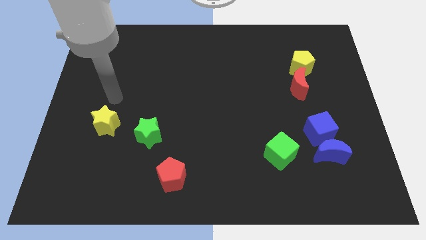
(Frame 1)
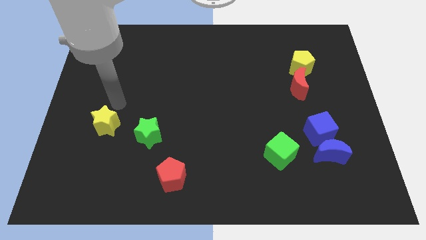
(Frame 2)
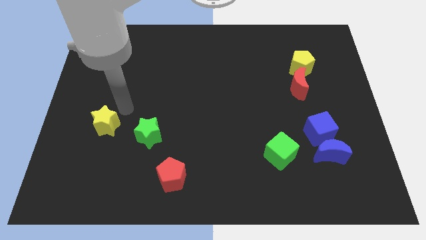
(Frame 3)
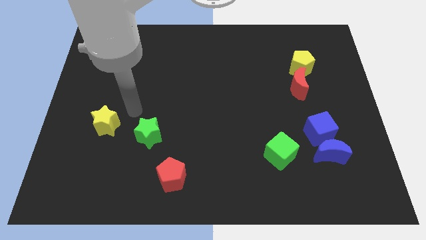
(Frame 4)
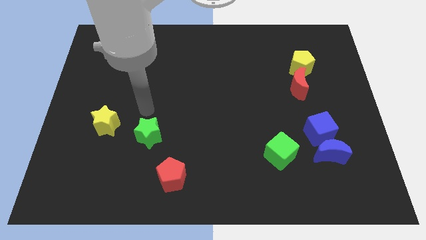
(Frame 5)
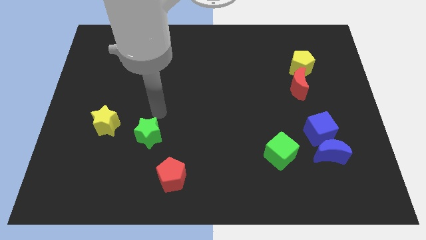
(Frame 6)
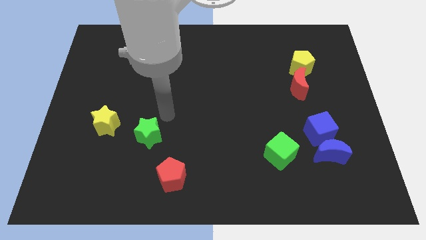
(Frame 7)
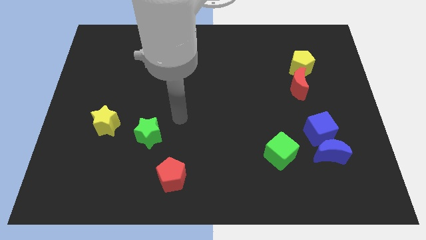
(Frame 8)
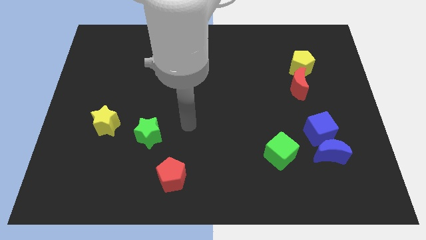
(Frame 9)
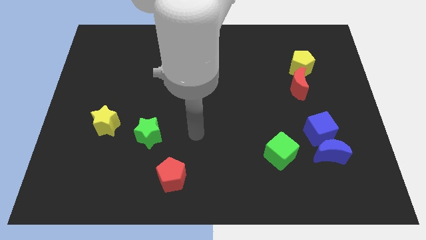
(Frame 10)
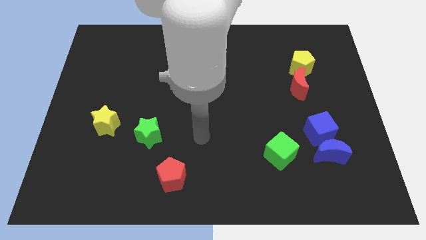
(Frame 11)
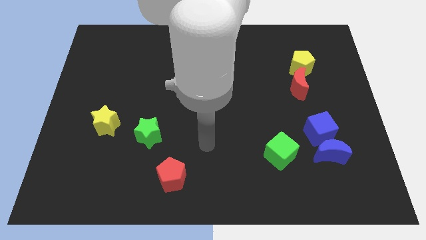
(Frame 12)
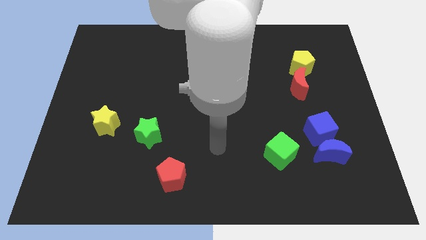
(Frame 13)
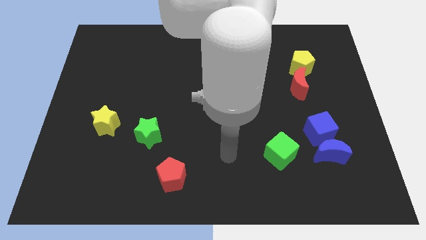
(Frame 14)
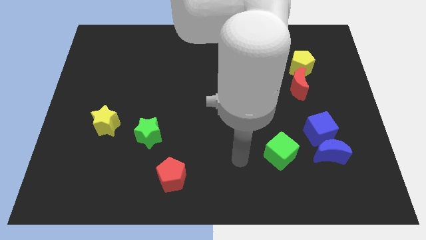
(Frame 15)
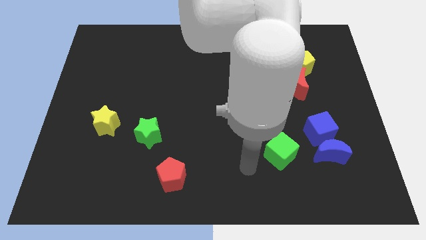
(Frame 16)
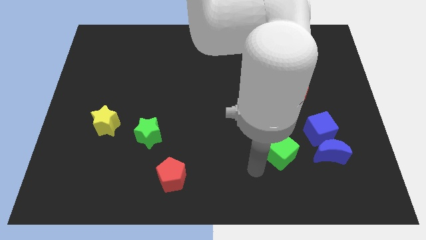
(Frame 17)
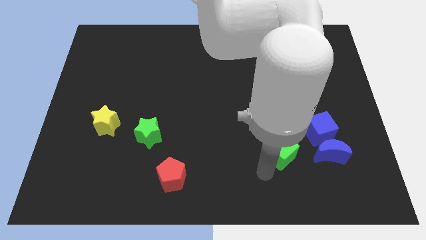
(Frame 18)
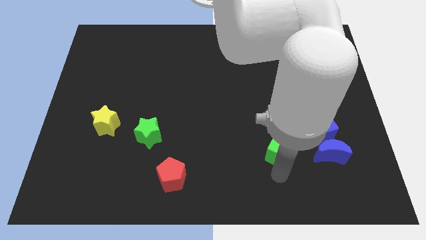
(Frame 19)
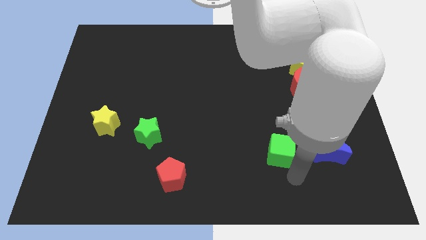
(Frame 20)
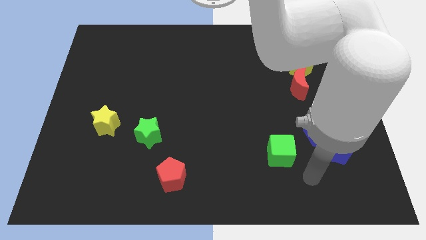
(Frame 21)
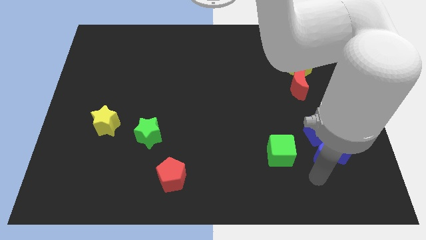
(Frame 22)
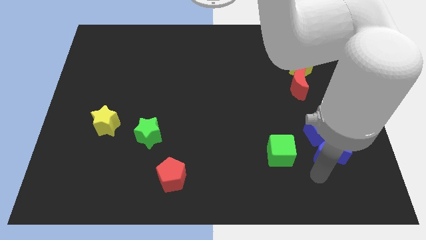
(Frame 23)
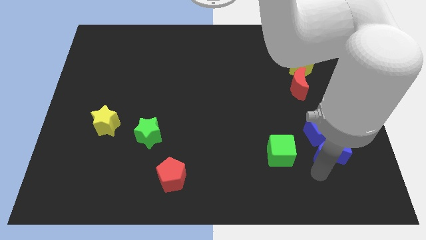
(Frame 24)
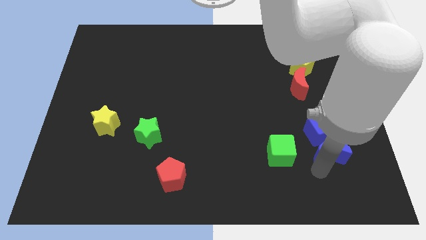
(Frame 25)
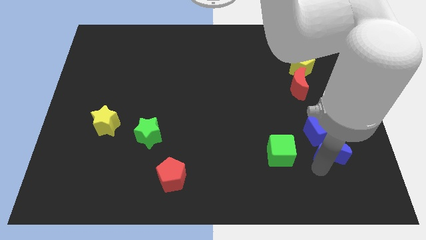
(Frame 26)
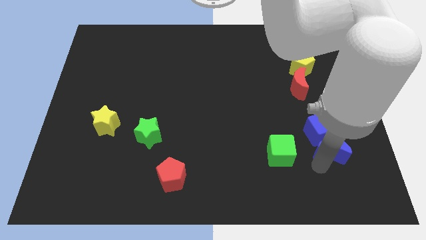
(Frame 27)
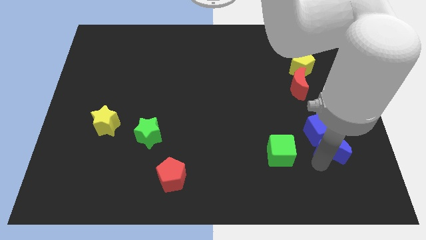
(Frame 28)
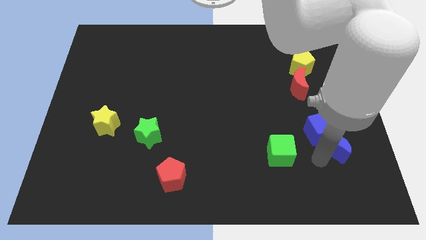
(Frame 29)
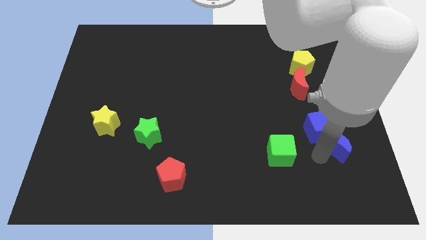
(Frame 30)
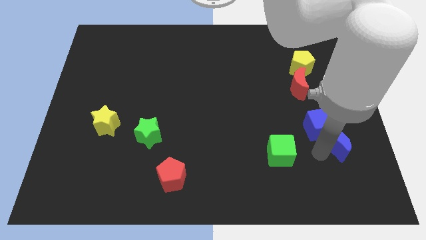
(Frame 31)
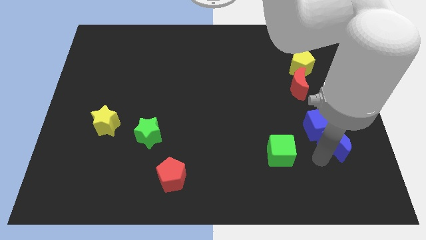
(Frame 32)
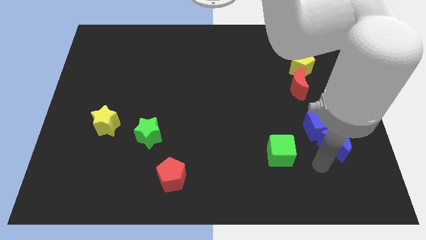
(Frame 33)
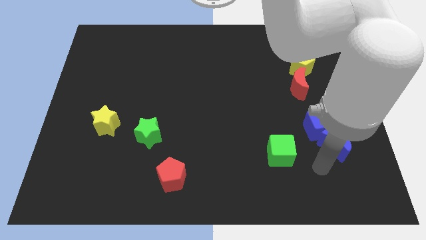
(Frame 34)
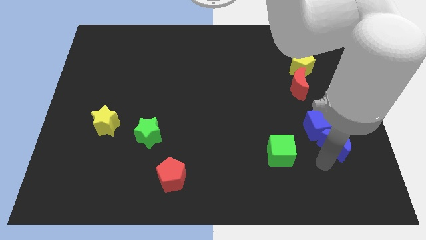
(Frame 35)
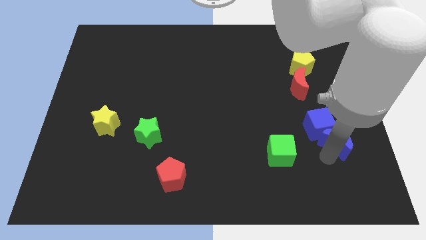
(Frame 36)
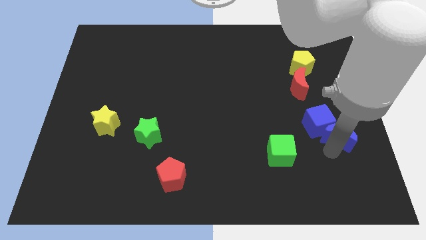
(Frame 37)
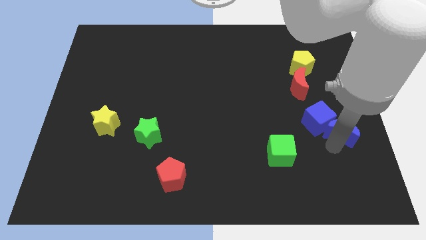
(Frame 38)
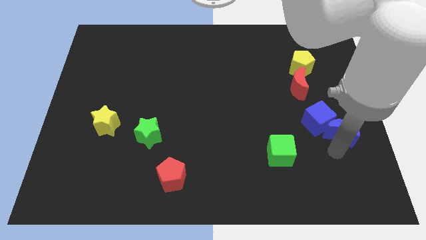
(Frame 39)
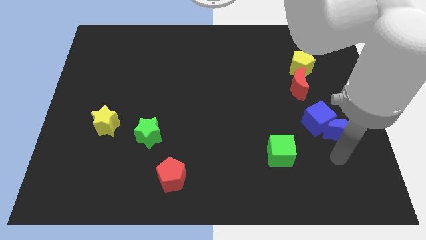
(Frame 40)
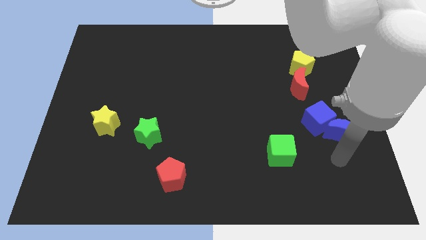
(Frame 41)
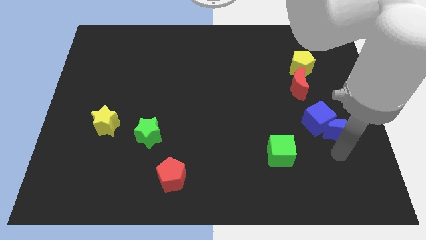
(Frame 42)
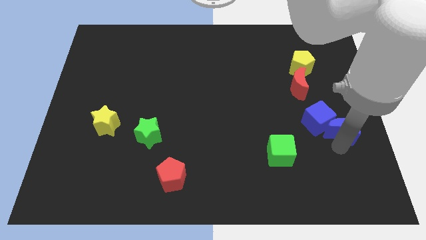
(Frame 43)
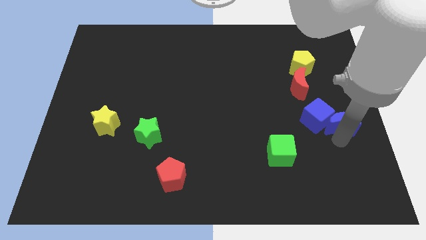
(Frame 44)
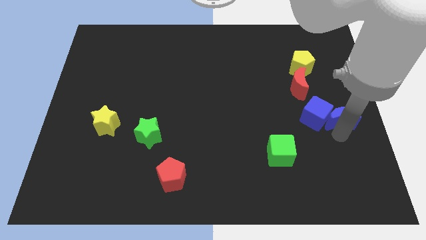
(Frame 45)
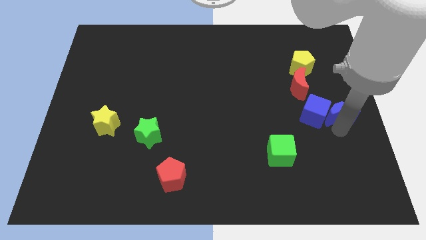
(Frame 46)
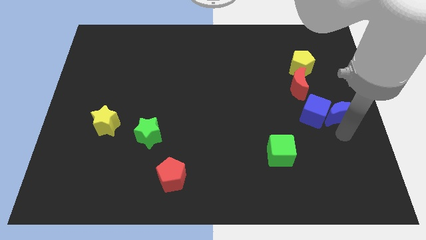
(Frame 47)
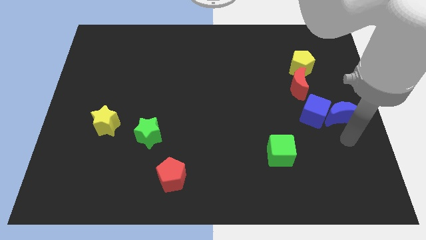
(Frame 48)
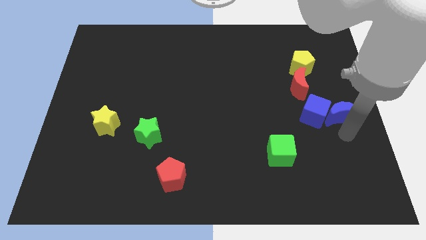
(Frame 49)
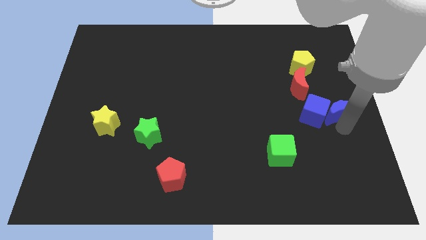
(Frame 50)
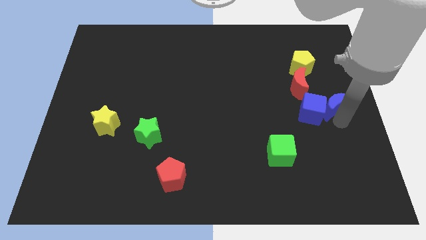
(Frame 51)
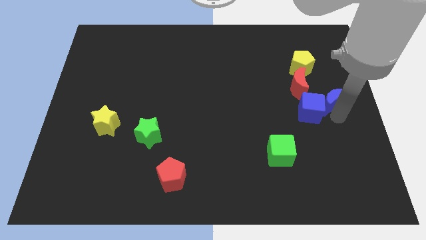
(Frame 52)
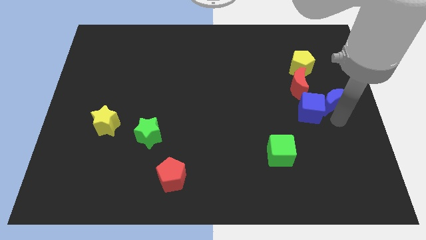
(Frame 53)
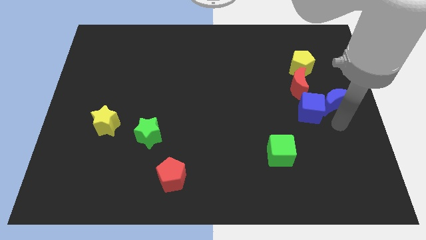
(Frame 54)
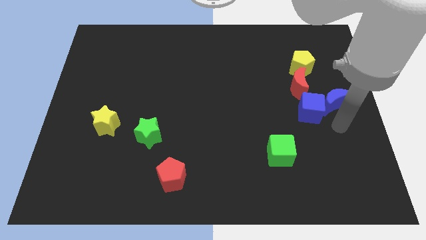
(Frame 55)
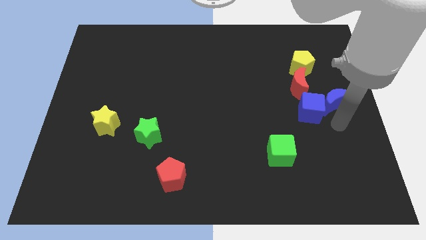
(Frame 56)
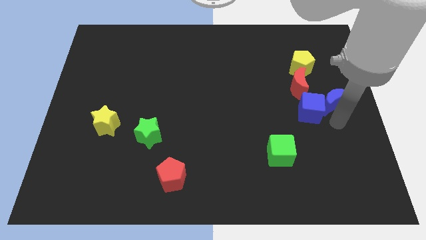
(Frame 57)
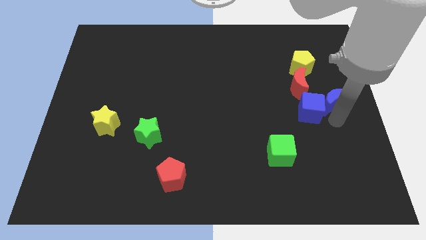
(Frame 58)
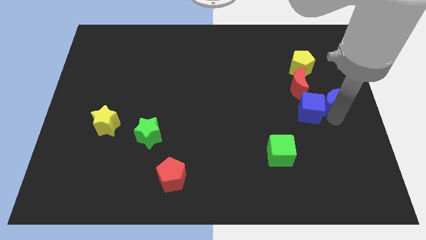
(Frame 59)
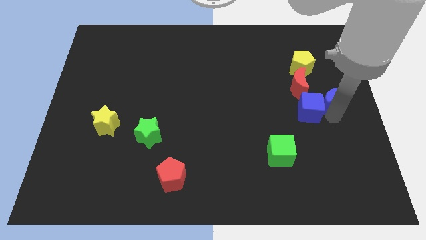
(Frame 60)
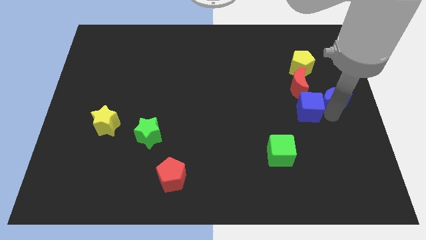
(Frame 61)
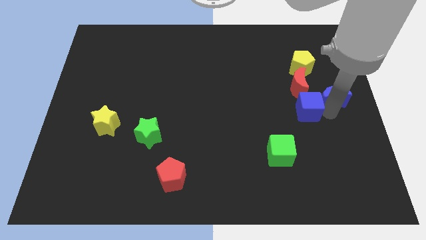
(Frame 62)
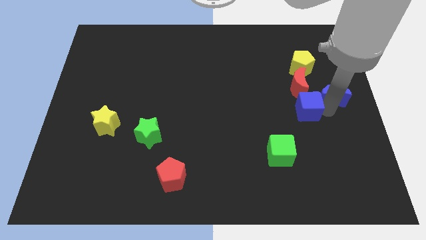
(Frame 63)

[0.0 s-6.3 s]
put the blue moon to the bottom right of the yellow pentagon

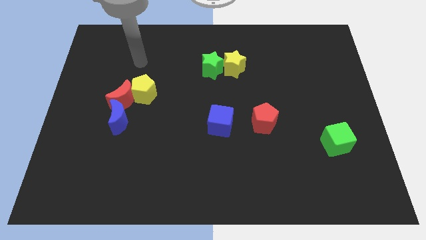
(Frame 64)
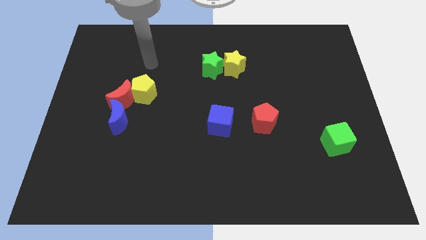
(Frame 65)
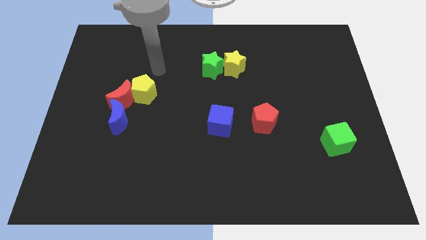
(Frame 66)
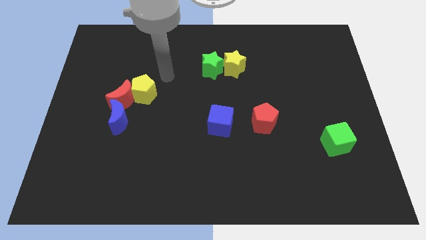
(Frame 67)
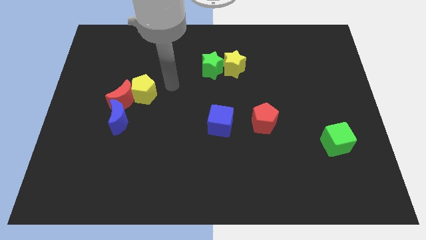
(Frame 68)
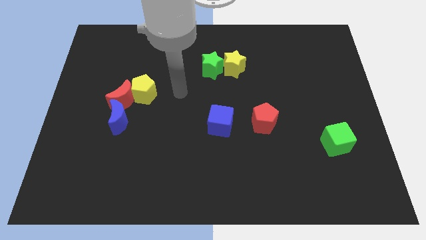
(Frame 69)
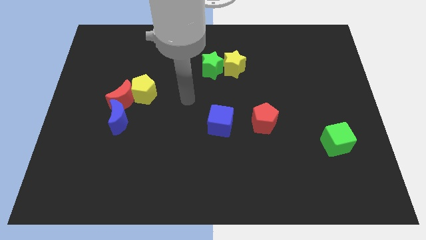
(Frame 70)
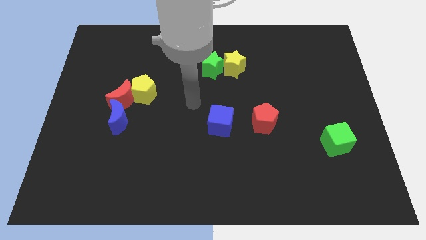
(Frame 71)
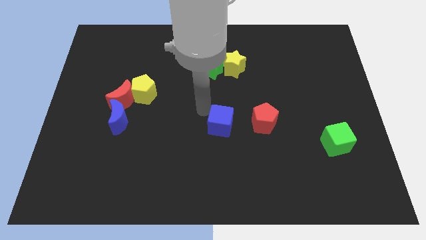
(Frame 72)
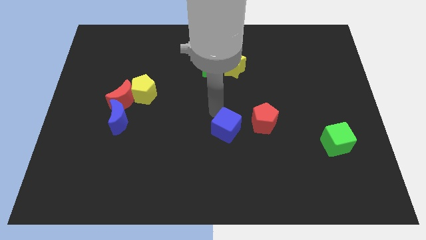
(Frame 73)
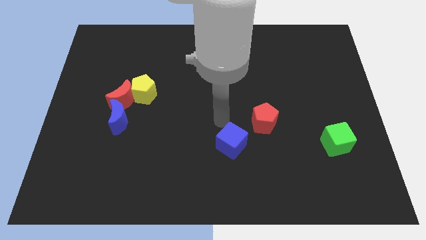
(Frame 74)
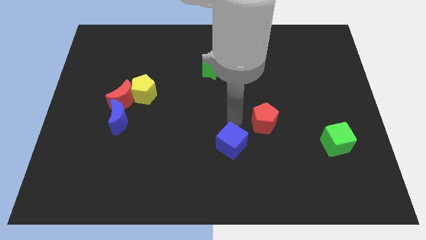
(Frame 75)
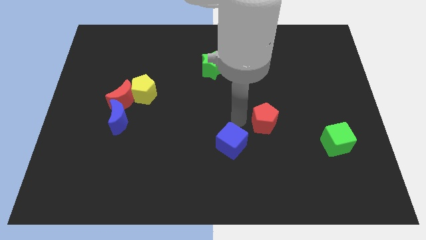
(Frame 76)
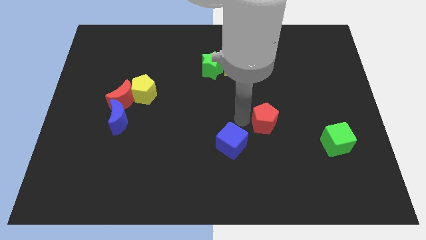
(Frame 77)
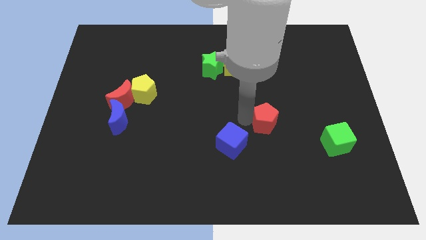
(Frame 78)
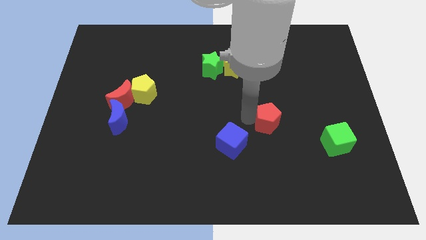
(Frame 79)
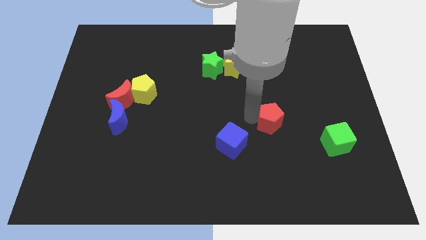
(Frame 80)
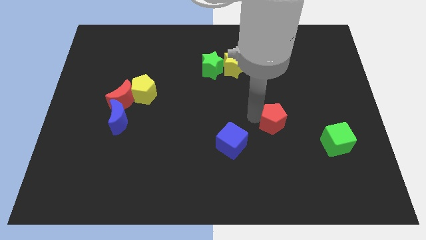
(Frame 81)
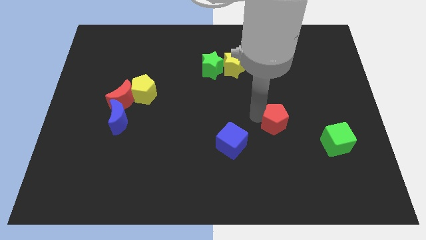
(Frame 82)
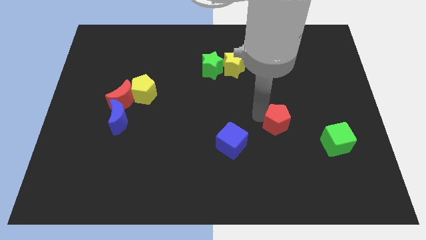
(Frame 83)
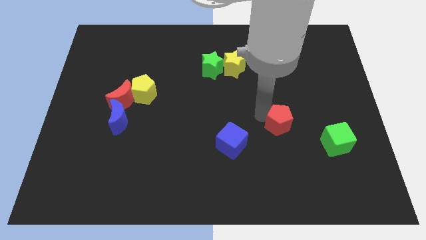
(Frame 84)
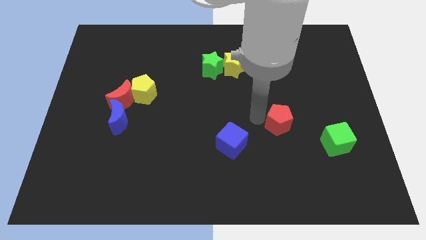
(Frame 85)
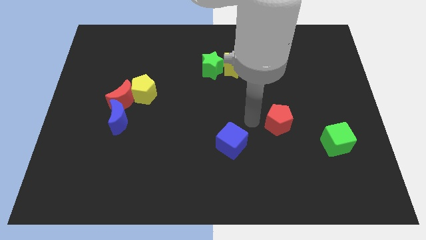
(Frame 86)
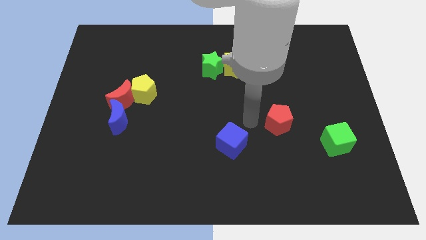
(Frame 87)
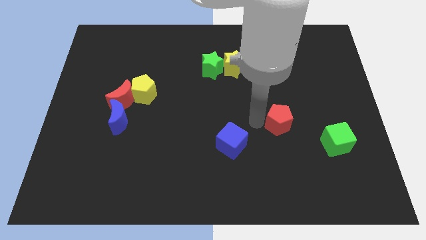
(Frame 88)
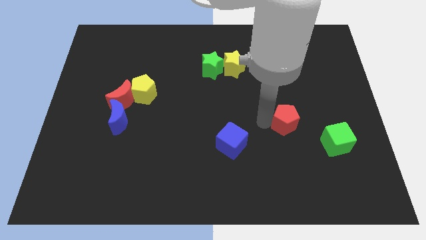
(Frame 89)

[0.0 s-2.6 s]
slide the red pentagon to the top left side of the green cube
